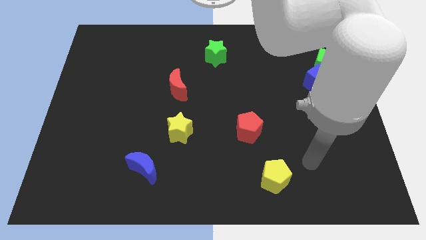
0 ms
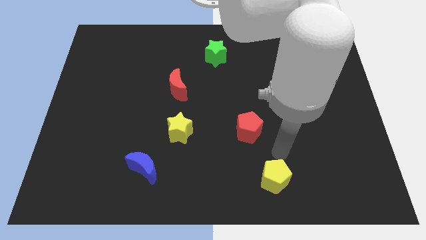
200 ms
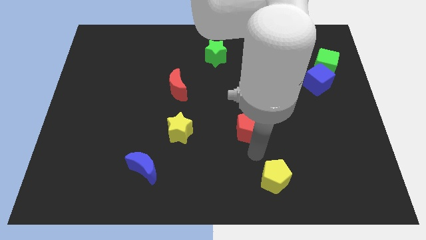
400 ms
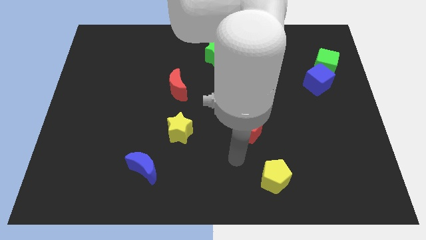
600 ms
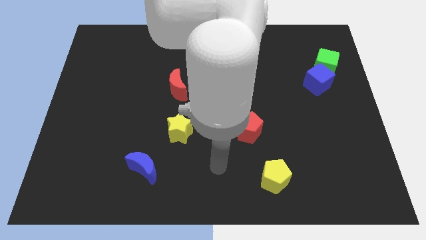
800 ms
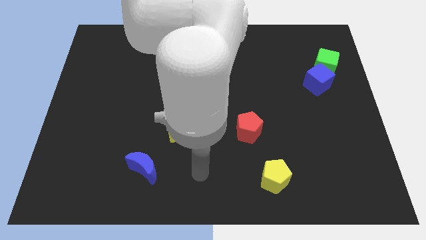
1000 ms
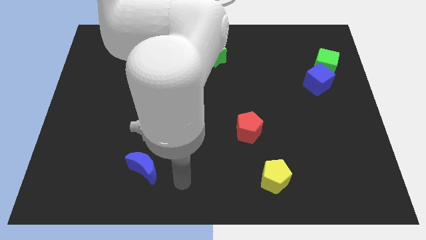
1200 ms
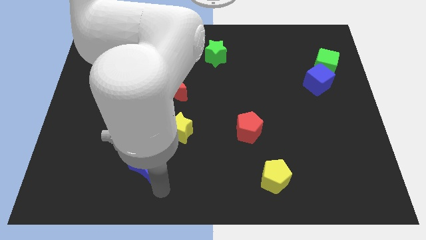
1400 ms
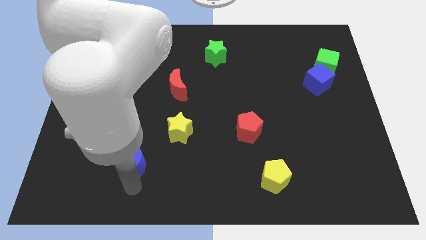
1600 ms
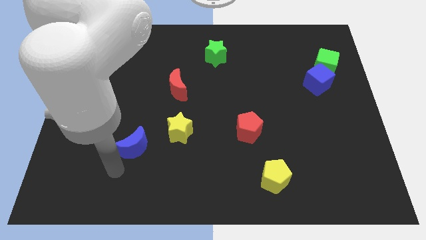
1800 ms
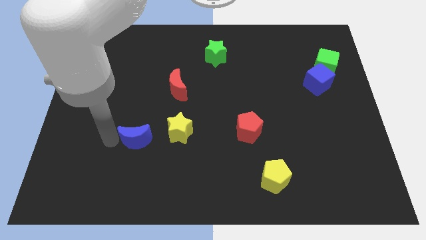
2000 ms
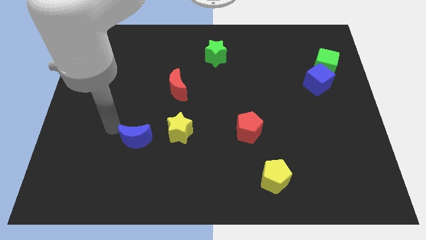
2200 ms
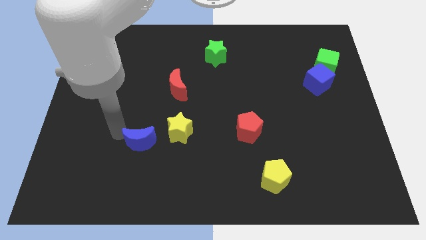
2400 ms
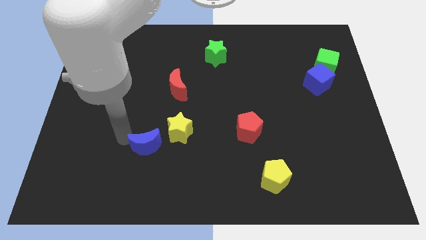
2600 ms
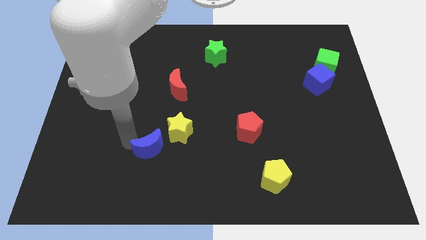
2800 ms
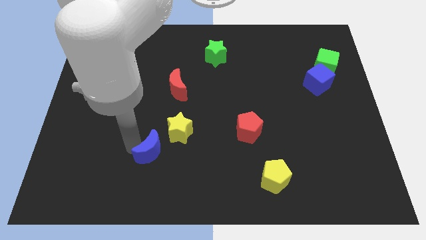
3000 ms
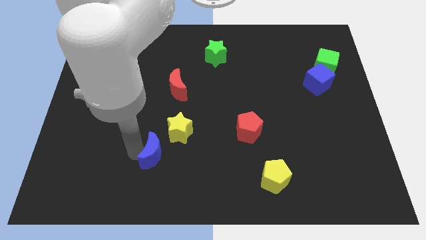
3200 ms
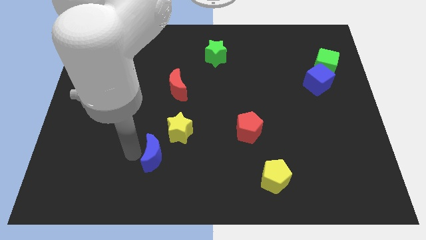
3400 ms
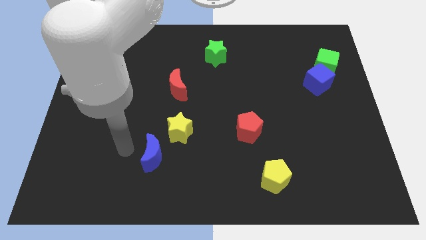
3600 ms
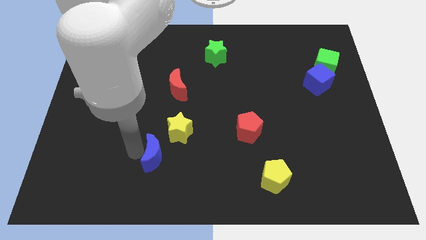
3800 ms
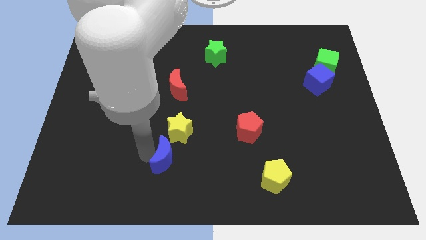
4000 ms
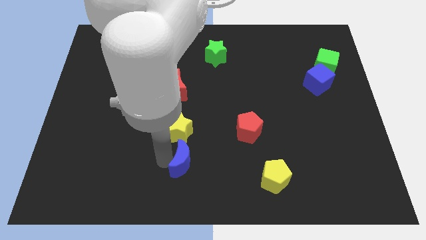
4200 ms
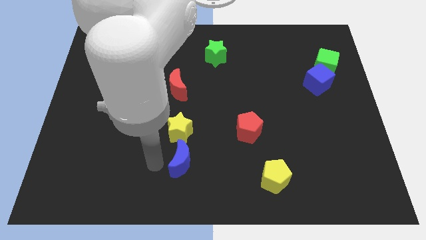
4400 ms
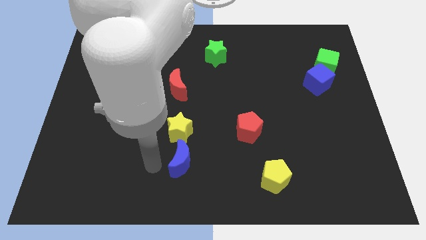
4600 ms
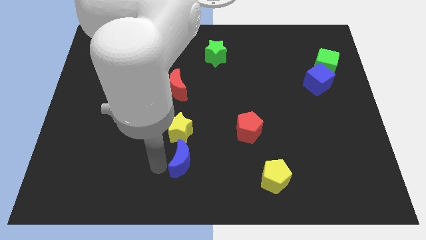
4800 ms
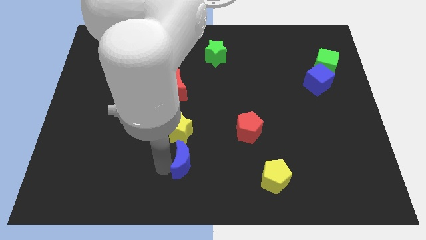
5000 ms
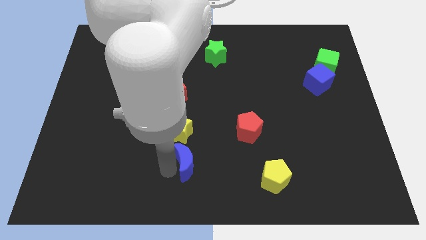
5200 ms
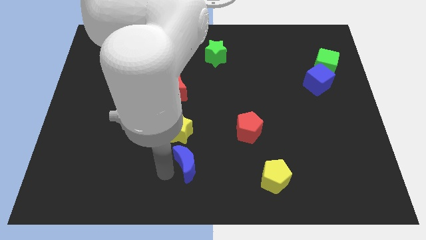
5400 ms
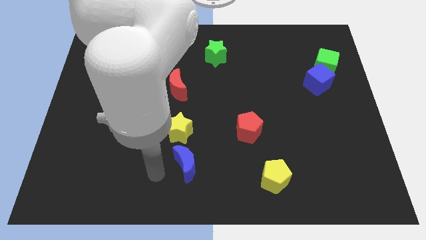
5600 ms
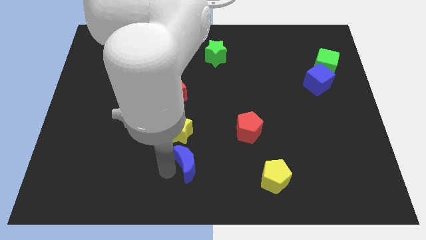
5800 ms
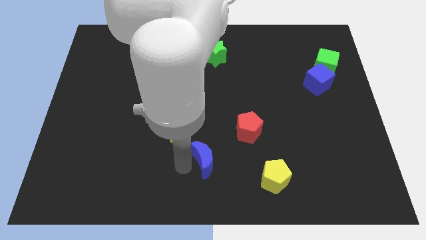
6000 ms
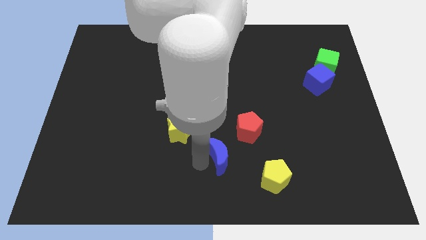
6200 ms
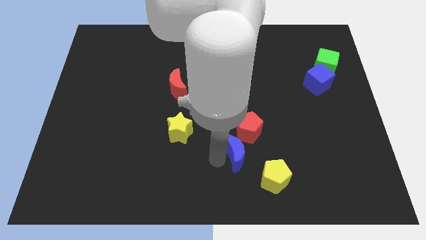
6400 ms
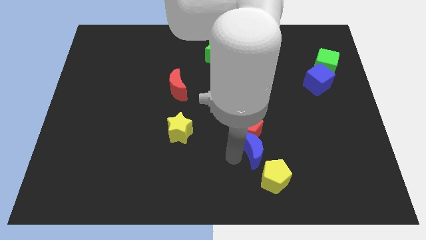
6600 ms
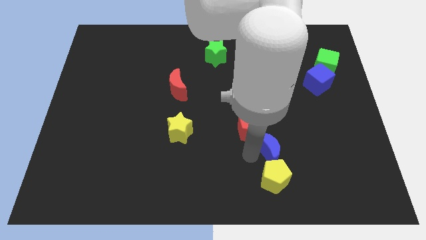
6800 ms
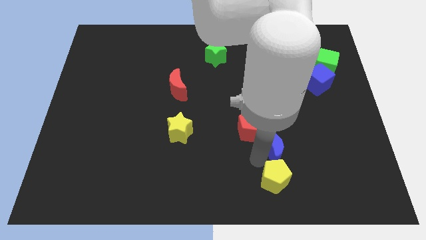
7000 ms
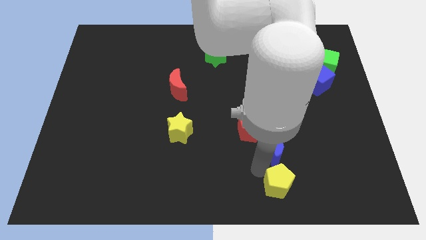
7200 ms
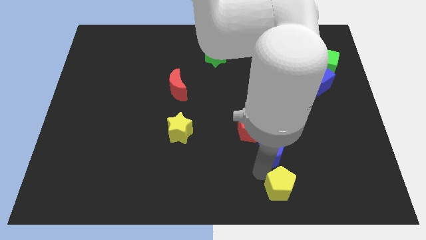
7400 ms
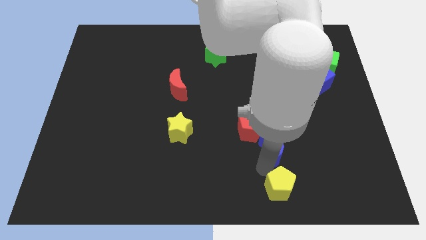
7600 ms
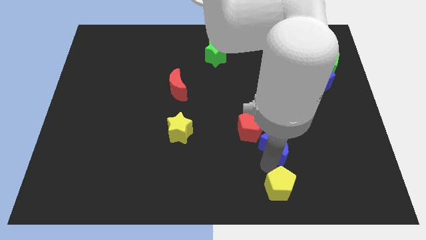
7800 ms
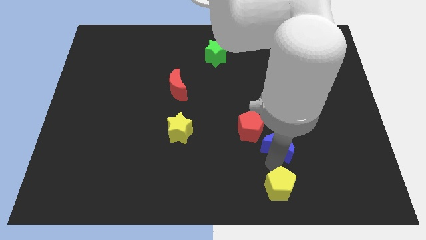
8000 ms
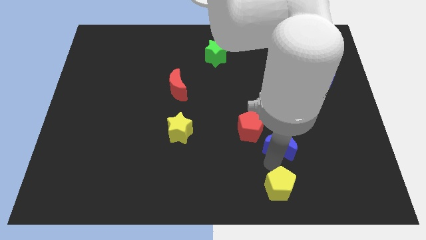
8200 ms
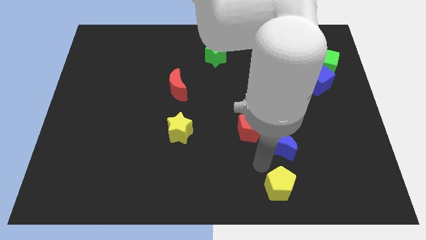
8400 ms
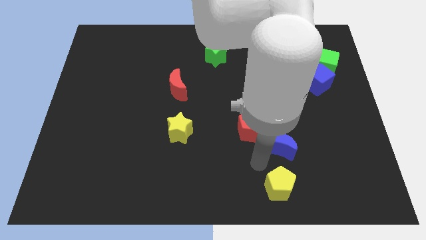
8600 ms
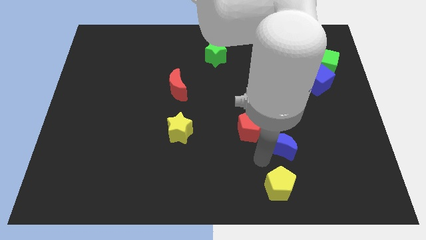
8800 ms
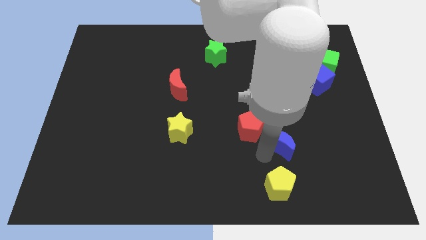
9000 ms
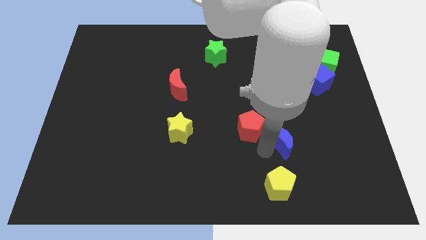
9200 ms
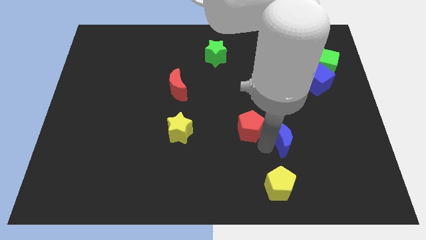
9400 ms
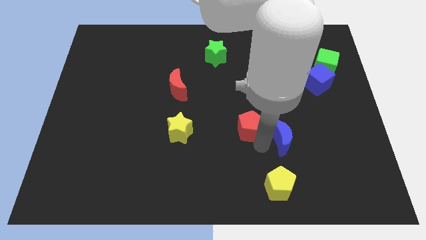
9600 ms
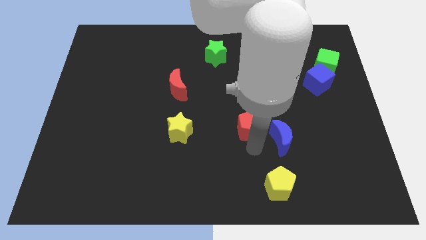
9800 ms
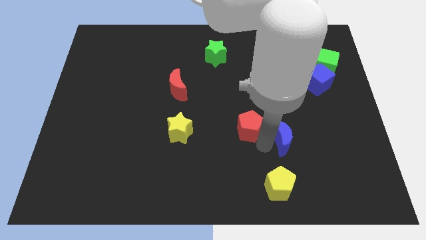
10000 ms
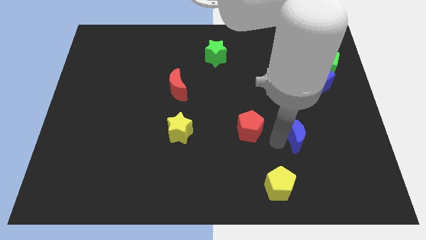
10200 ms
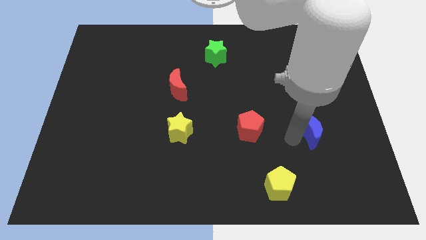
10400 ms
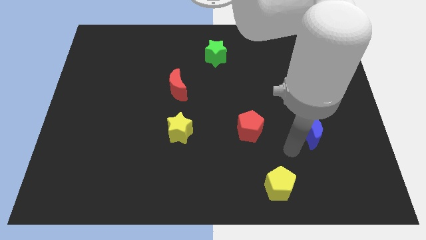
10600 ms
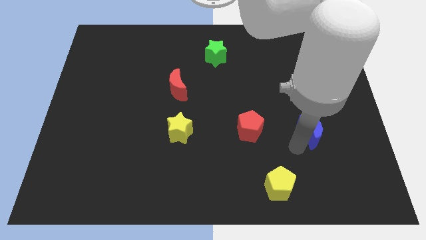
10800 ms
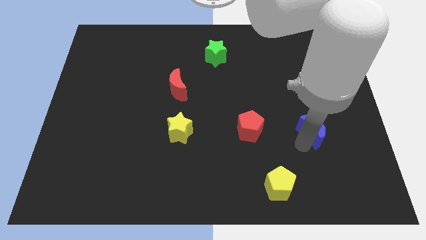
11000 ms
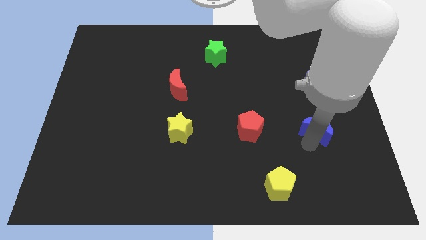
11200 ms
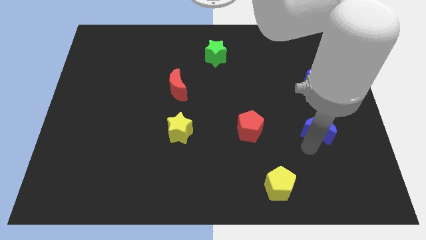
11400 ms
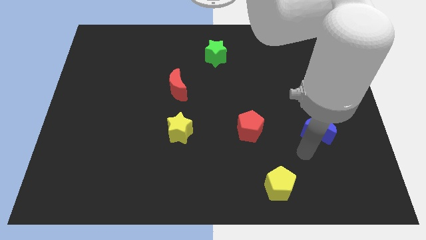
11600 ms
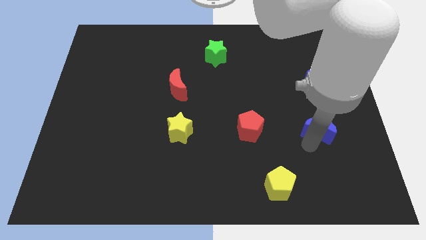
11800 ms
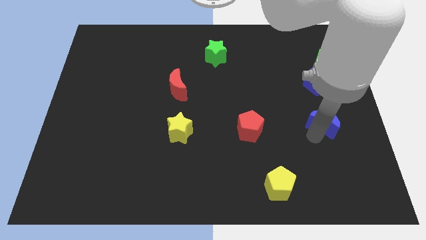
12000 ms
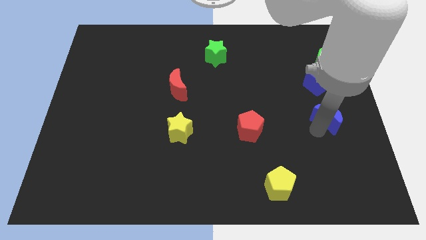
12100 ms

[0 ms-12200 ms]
slide the blue moon to the center right
